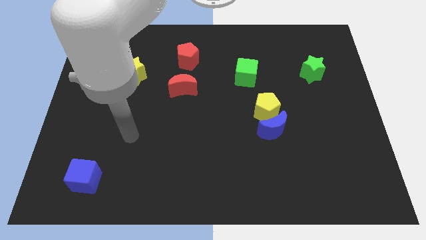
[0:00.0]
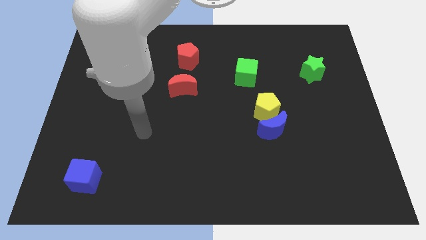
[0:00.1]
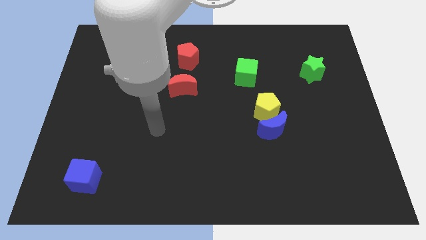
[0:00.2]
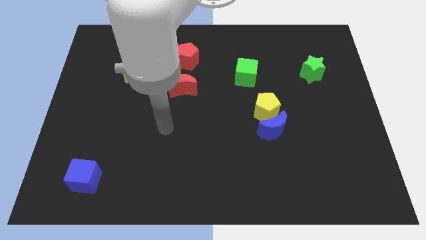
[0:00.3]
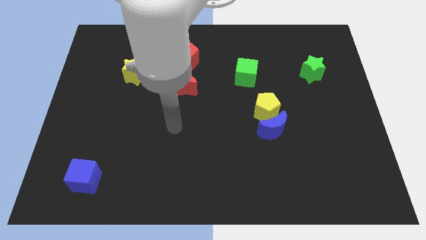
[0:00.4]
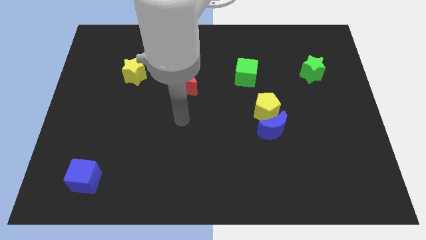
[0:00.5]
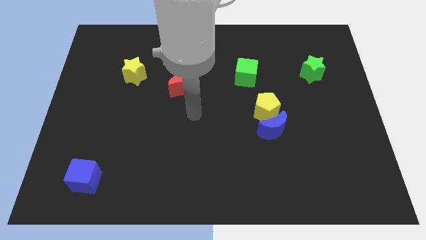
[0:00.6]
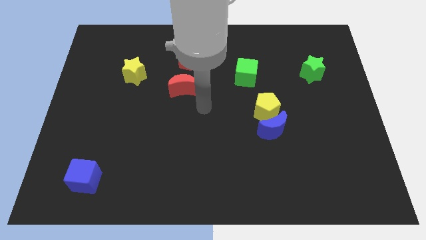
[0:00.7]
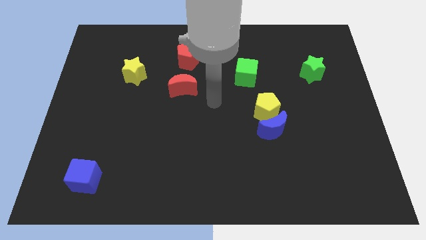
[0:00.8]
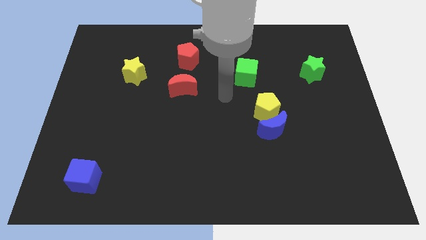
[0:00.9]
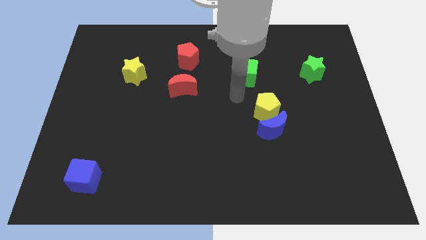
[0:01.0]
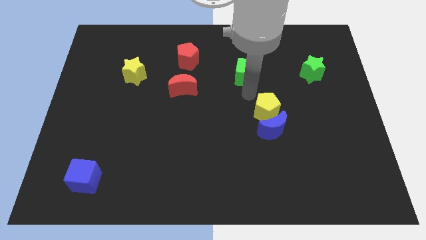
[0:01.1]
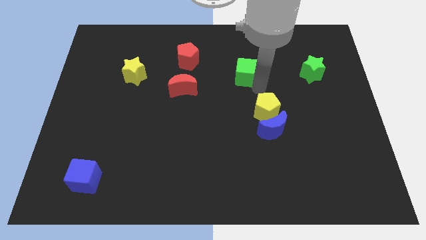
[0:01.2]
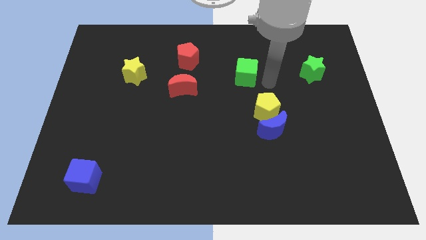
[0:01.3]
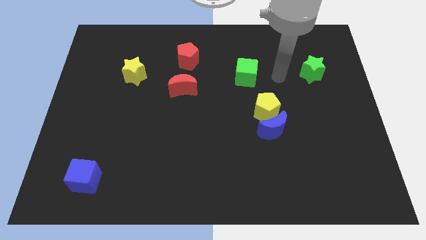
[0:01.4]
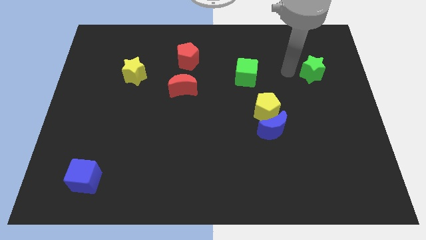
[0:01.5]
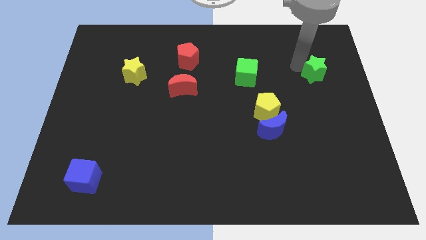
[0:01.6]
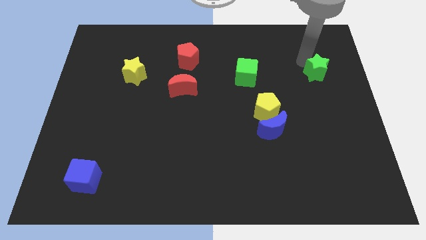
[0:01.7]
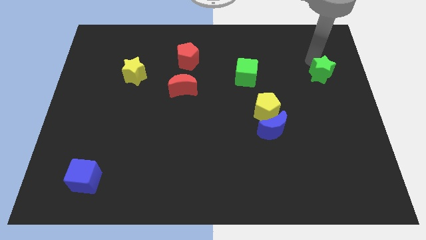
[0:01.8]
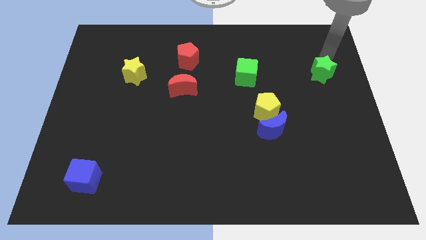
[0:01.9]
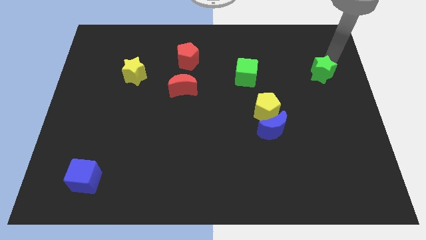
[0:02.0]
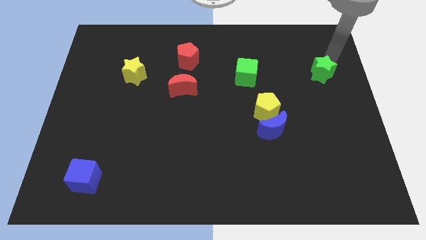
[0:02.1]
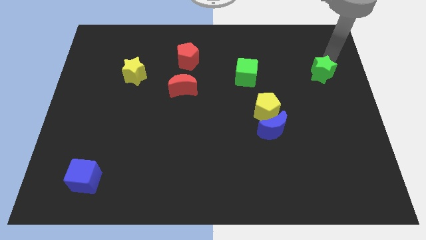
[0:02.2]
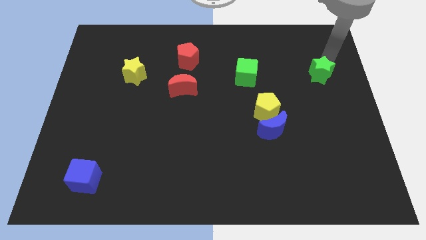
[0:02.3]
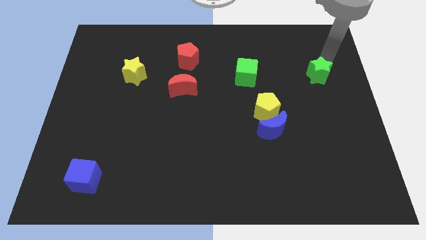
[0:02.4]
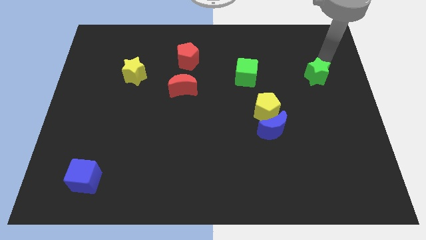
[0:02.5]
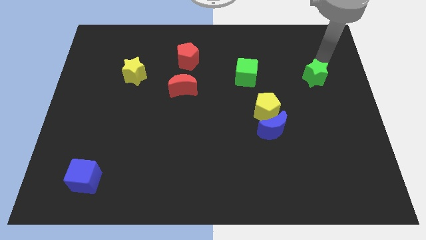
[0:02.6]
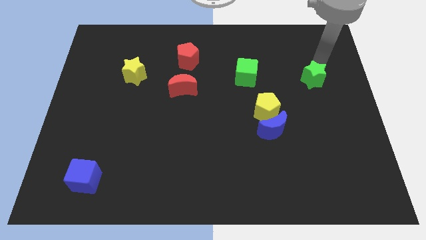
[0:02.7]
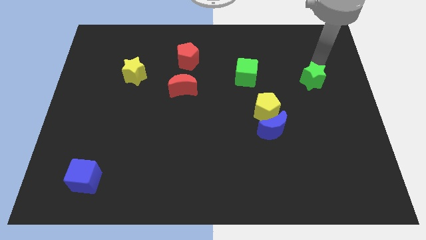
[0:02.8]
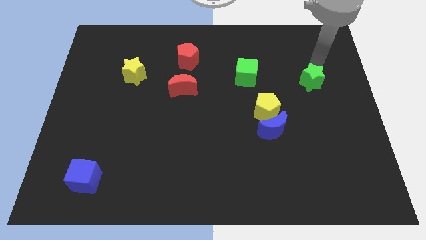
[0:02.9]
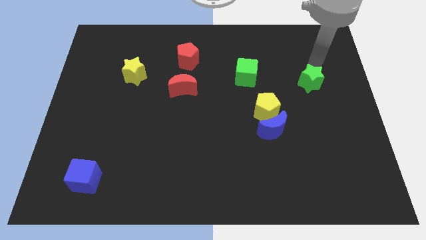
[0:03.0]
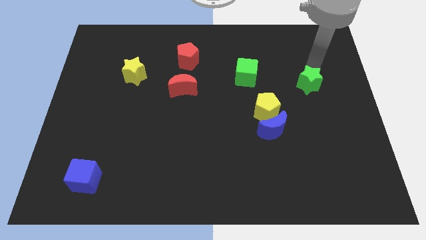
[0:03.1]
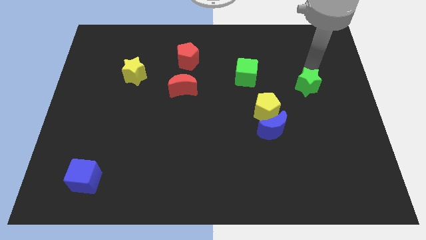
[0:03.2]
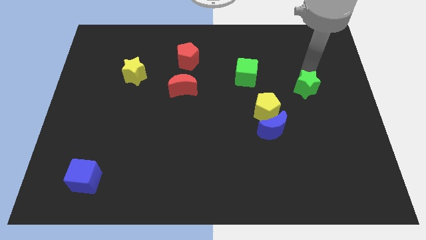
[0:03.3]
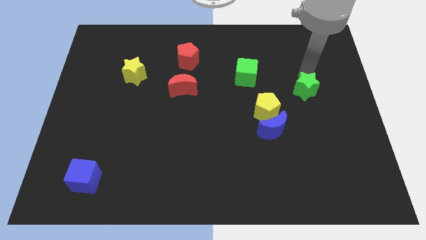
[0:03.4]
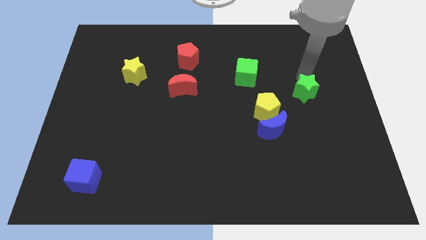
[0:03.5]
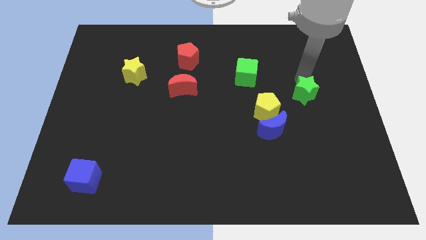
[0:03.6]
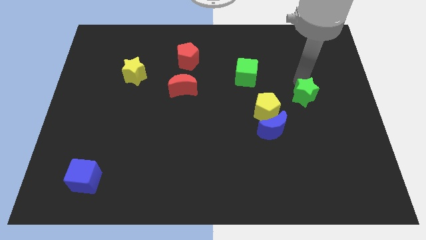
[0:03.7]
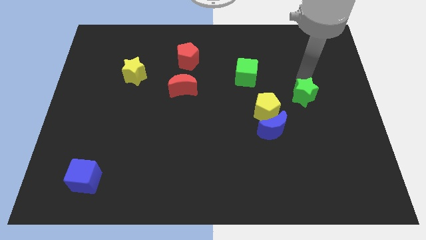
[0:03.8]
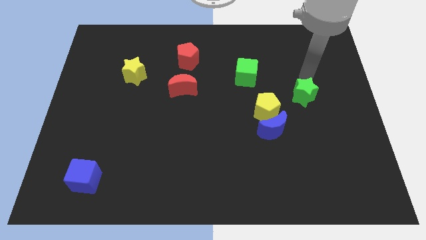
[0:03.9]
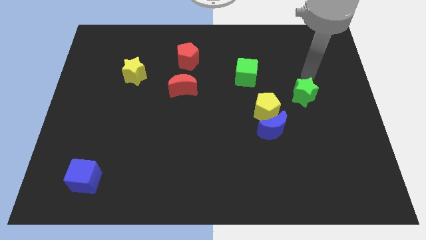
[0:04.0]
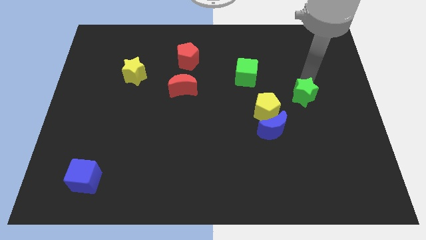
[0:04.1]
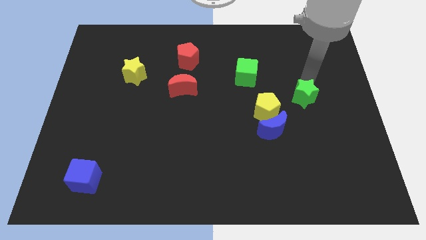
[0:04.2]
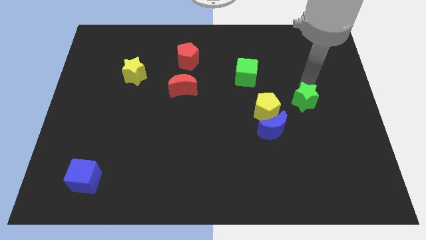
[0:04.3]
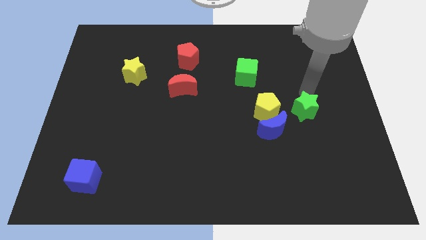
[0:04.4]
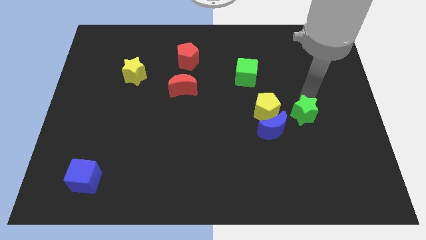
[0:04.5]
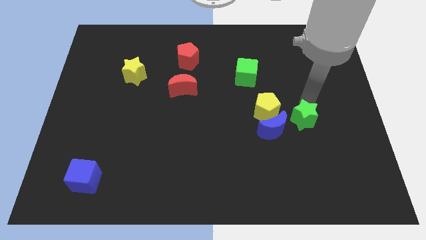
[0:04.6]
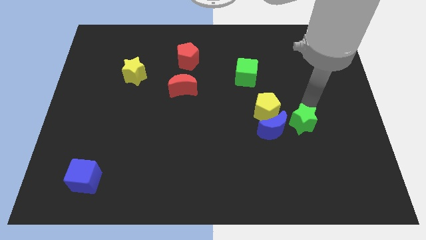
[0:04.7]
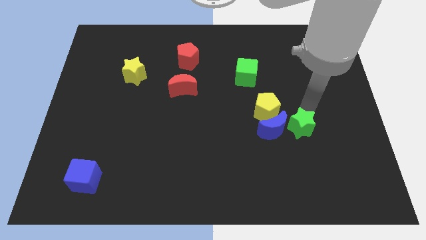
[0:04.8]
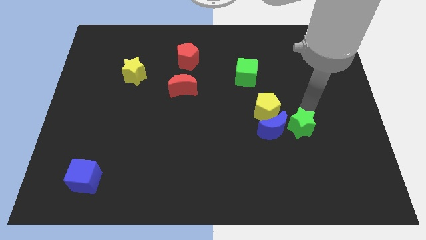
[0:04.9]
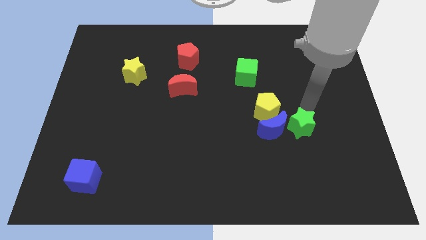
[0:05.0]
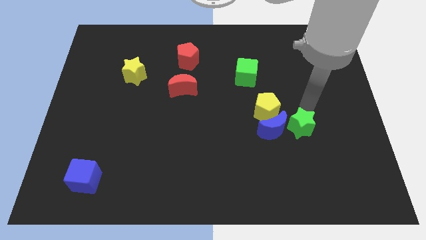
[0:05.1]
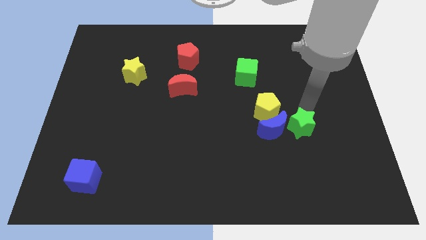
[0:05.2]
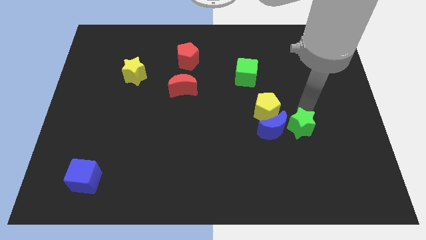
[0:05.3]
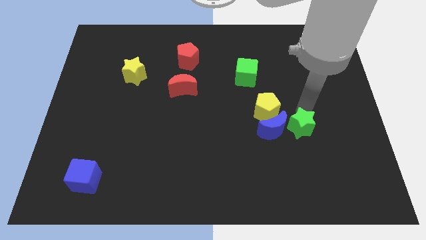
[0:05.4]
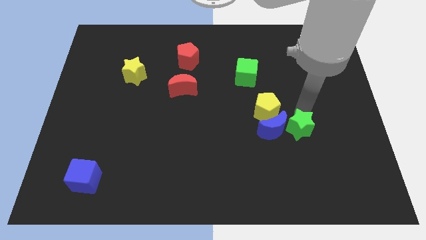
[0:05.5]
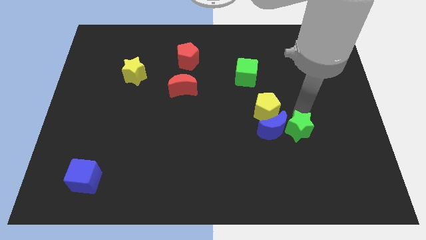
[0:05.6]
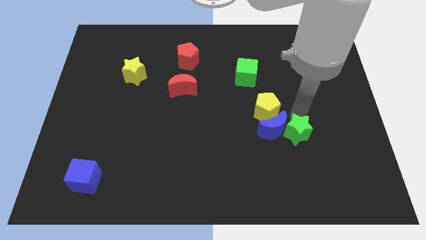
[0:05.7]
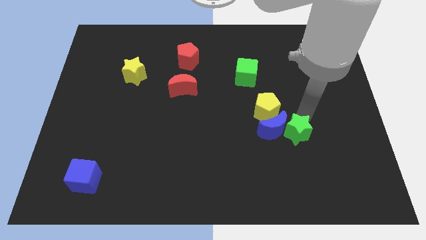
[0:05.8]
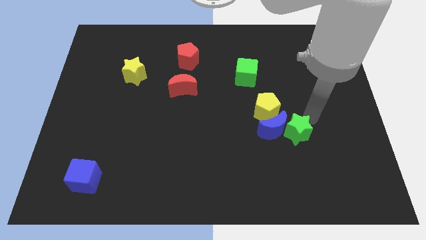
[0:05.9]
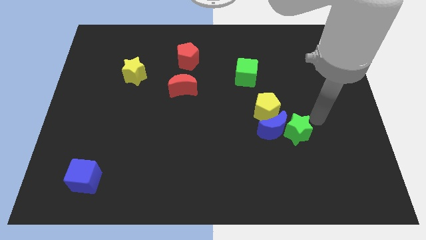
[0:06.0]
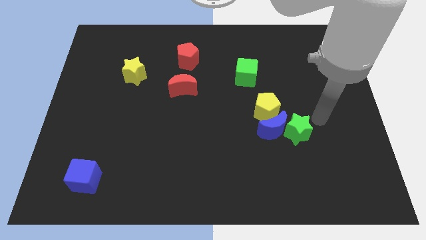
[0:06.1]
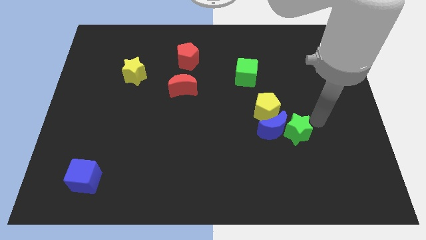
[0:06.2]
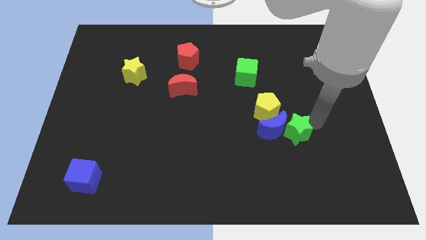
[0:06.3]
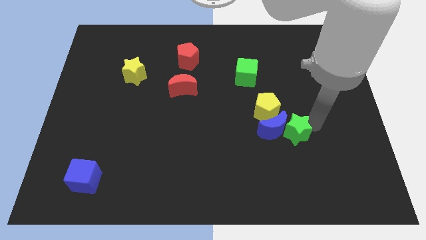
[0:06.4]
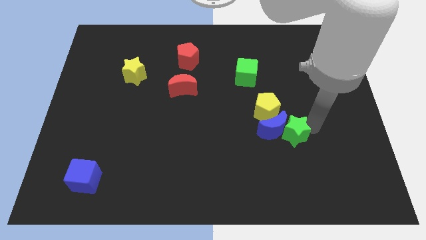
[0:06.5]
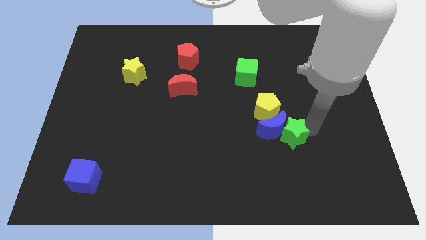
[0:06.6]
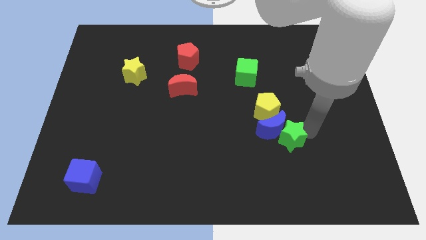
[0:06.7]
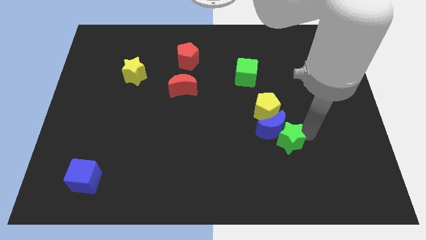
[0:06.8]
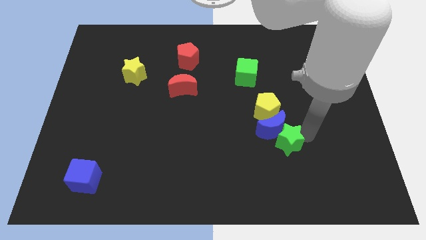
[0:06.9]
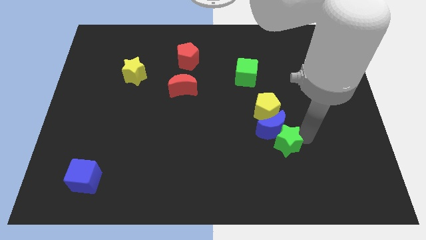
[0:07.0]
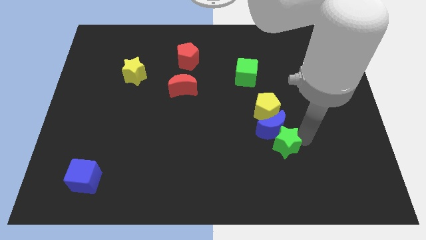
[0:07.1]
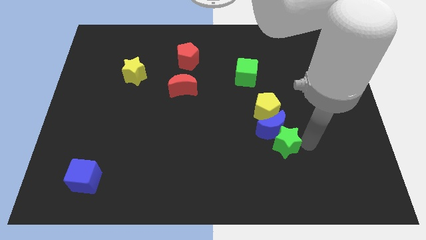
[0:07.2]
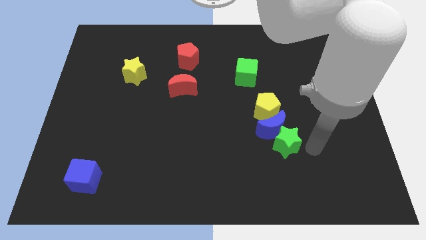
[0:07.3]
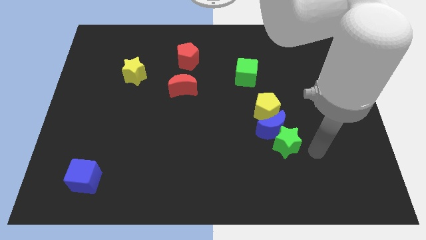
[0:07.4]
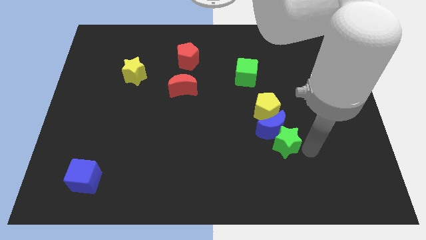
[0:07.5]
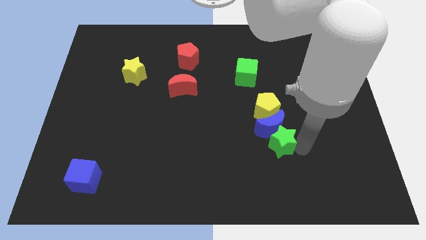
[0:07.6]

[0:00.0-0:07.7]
slide the green star downwards and to the left diagonally

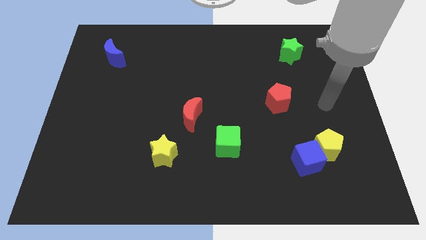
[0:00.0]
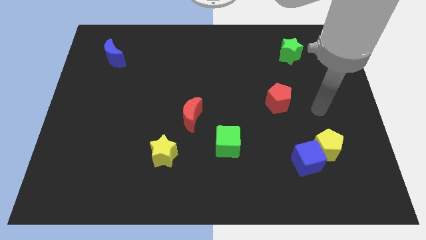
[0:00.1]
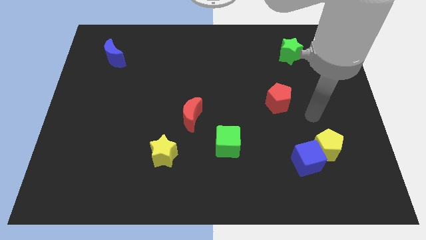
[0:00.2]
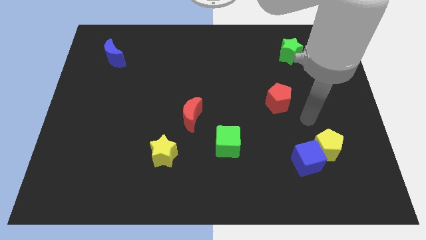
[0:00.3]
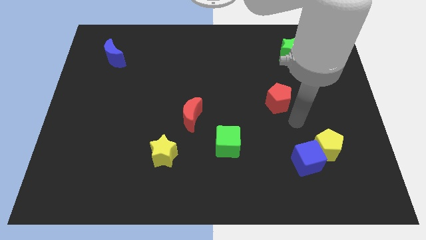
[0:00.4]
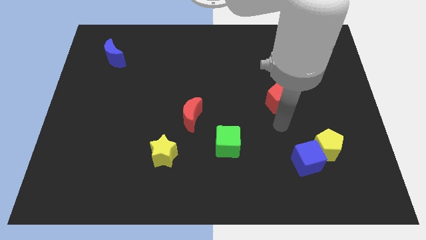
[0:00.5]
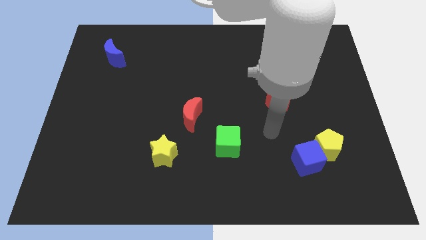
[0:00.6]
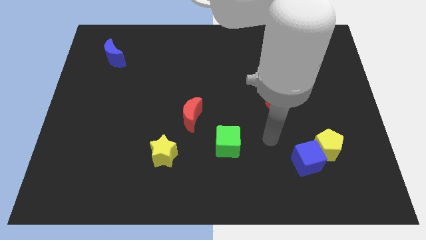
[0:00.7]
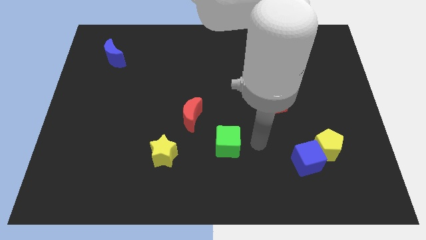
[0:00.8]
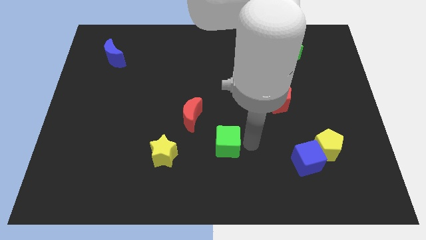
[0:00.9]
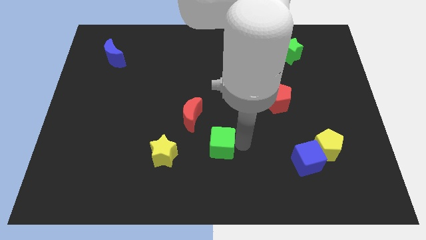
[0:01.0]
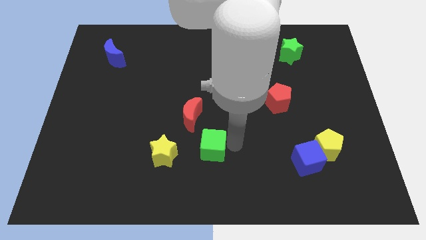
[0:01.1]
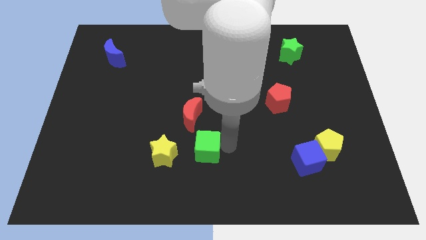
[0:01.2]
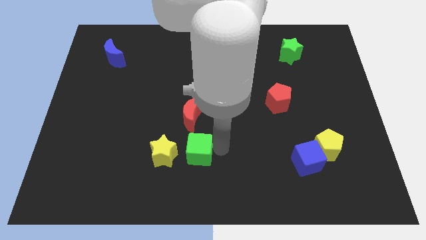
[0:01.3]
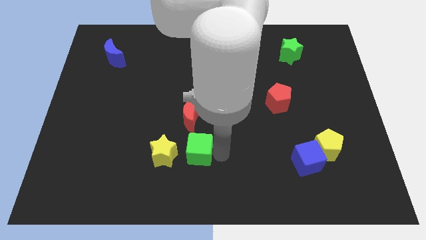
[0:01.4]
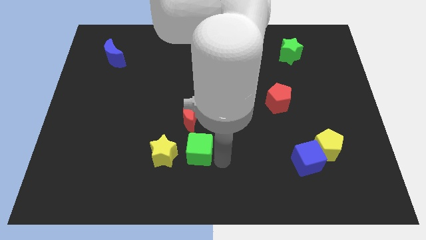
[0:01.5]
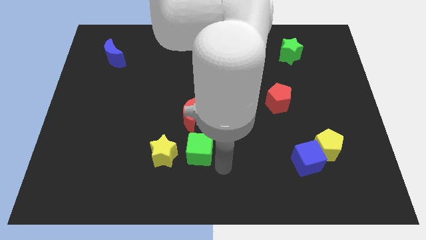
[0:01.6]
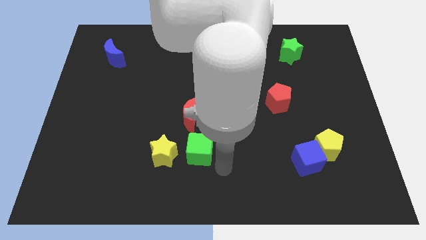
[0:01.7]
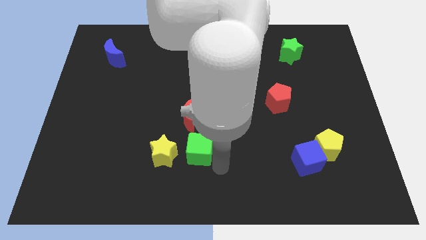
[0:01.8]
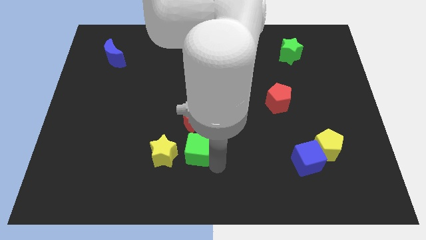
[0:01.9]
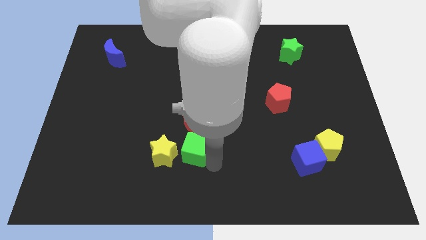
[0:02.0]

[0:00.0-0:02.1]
move the green cube a little bit left
